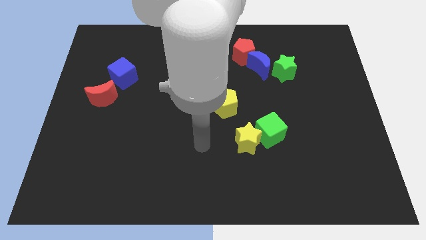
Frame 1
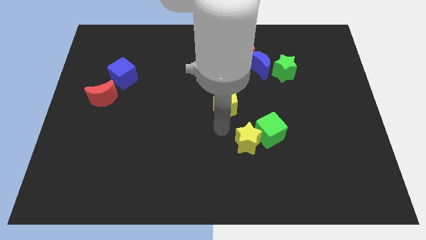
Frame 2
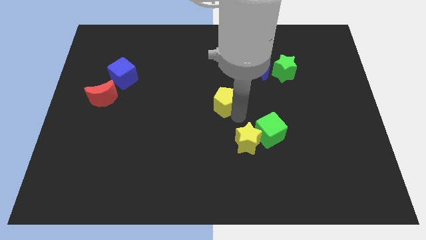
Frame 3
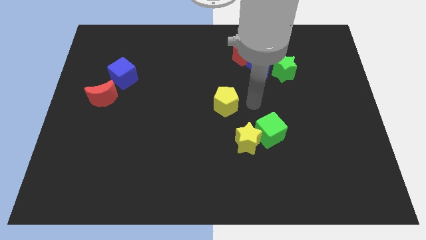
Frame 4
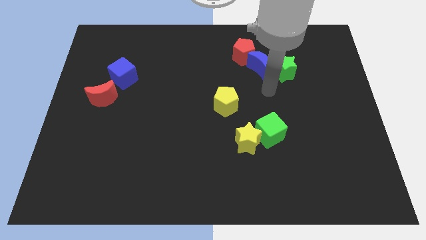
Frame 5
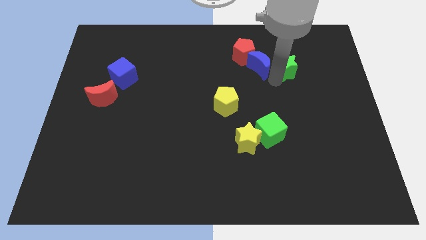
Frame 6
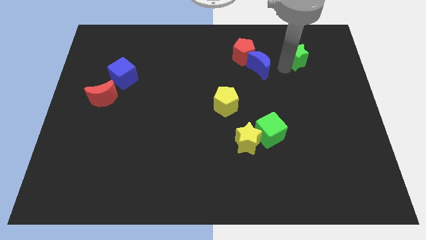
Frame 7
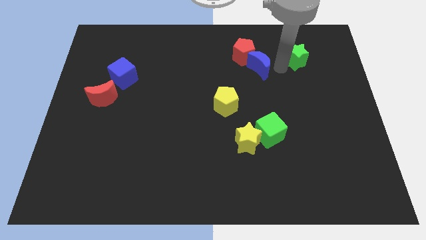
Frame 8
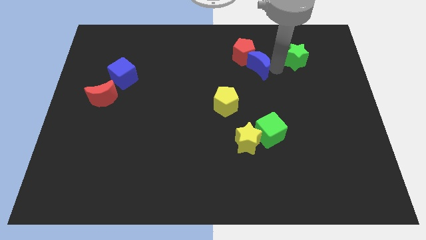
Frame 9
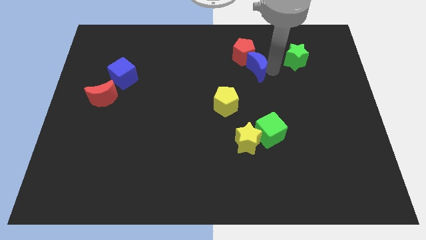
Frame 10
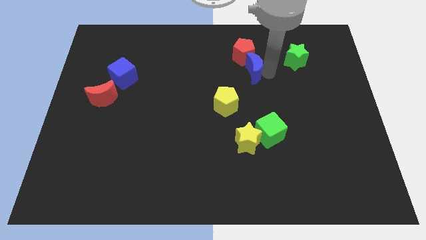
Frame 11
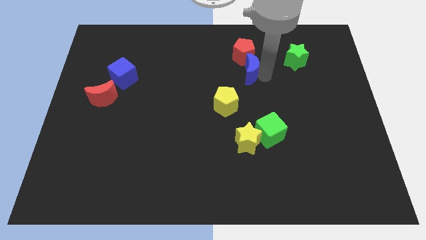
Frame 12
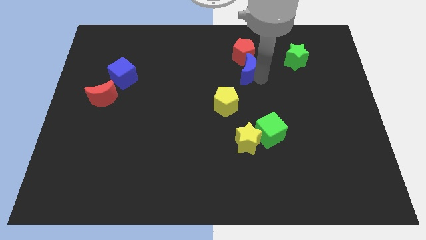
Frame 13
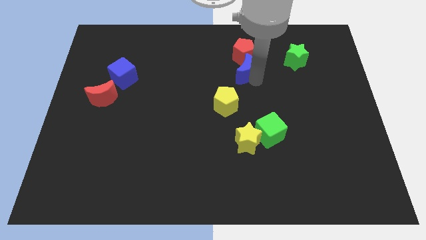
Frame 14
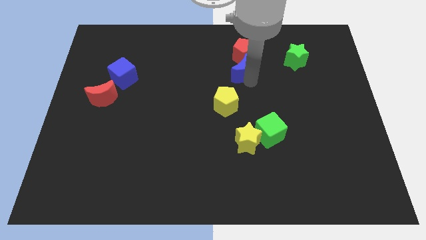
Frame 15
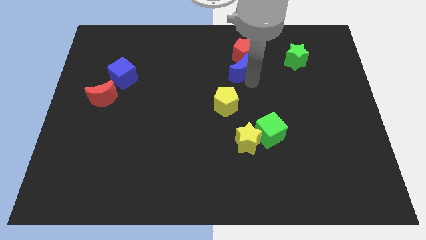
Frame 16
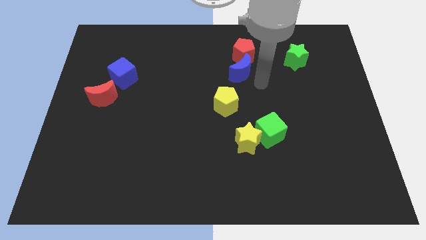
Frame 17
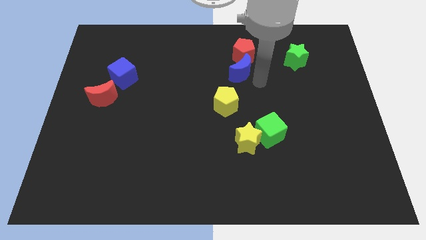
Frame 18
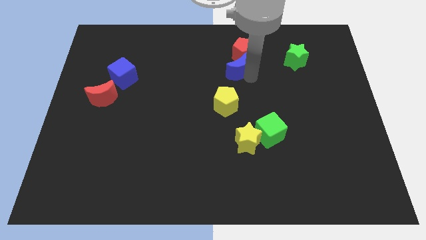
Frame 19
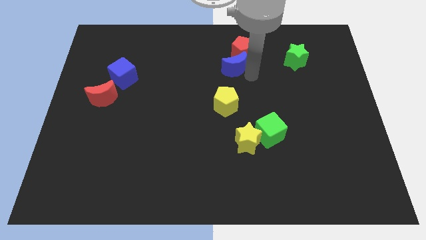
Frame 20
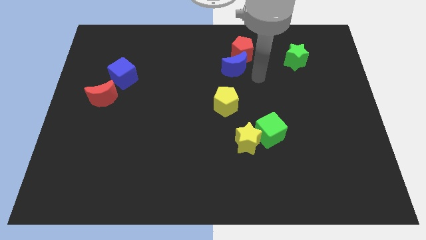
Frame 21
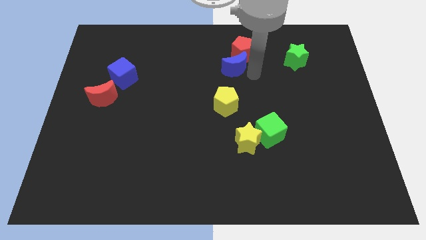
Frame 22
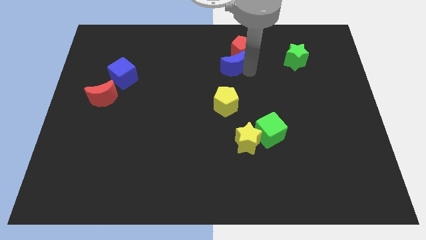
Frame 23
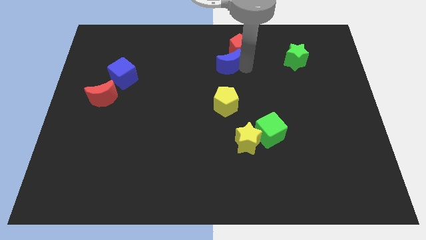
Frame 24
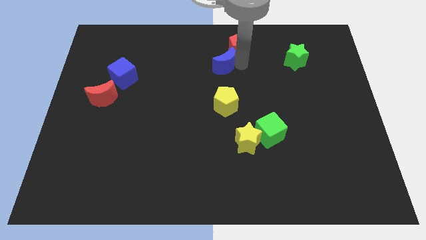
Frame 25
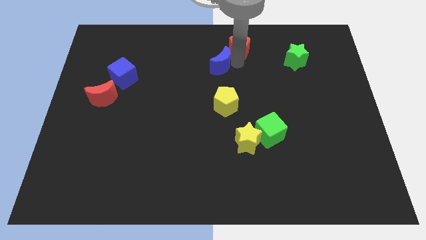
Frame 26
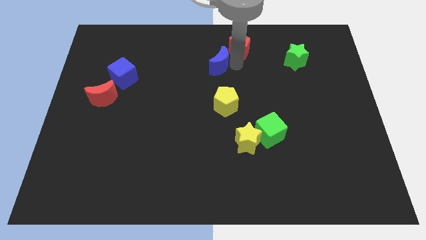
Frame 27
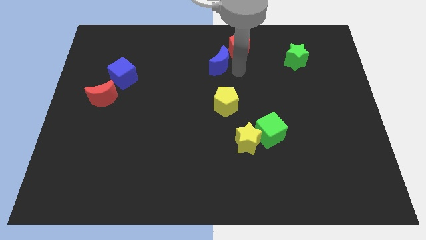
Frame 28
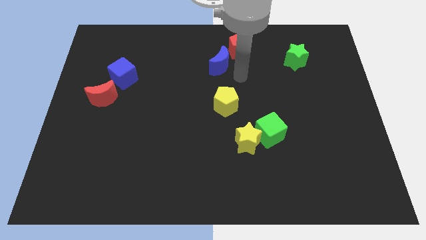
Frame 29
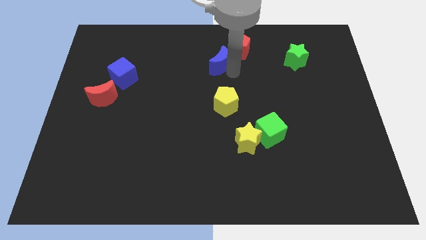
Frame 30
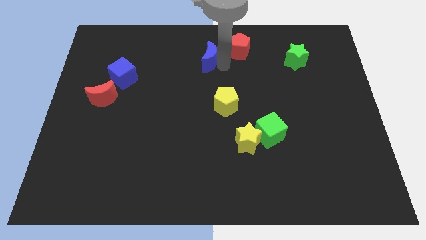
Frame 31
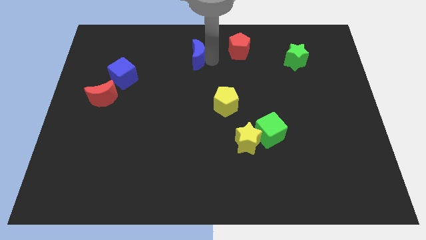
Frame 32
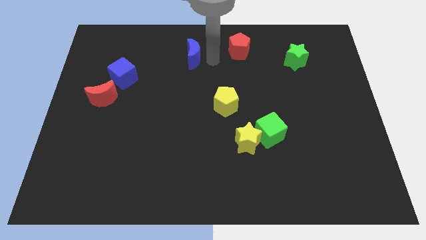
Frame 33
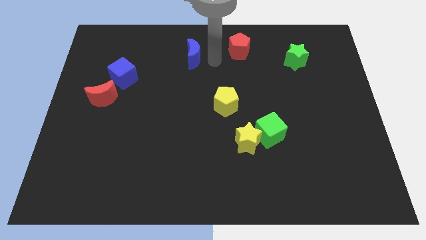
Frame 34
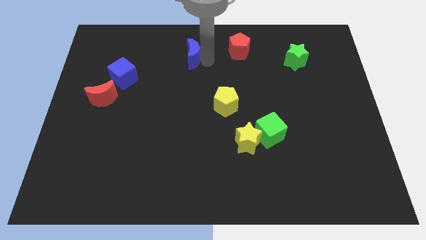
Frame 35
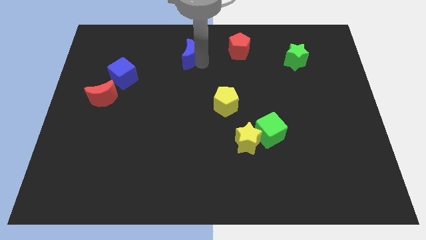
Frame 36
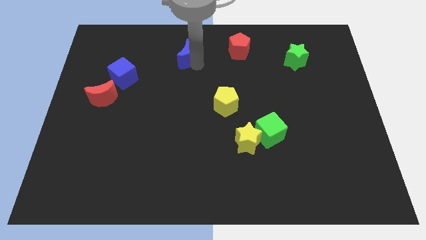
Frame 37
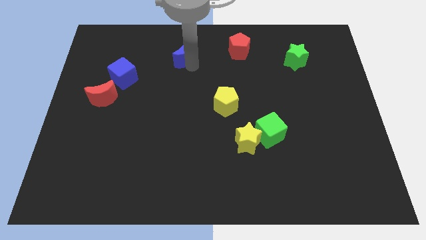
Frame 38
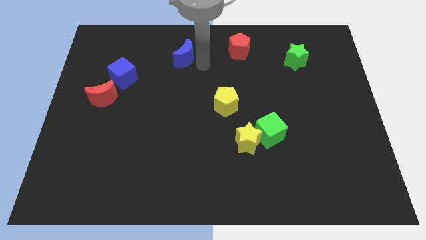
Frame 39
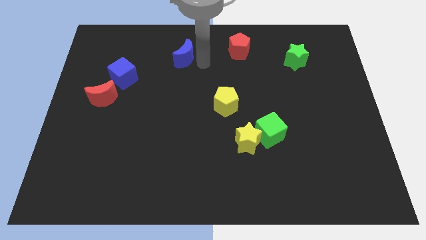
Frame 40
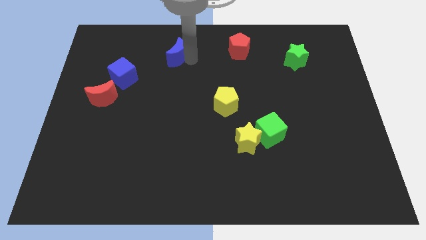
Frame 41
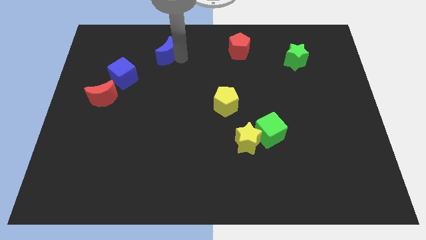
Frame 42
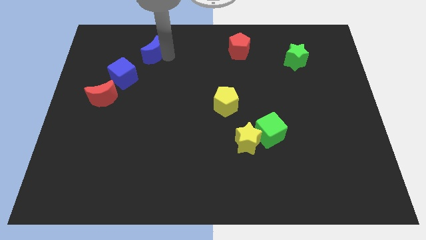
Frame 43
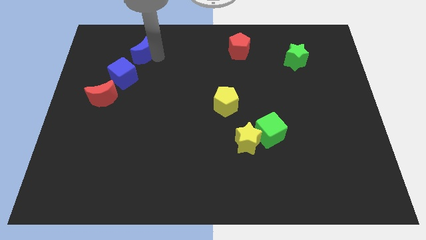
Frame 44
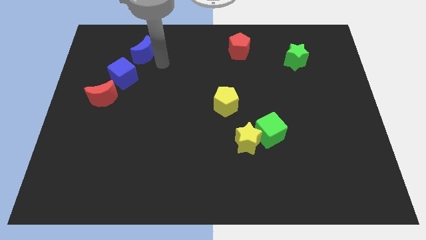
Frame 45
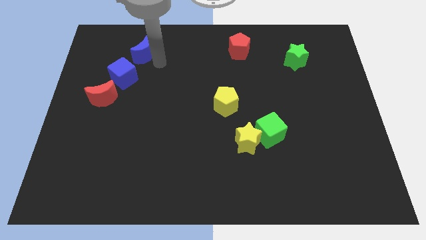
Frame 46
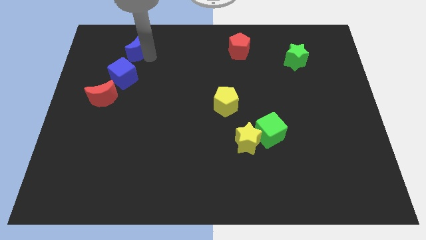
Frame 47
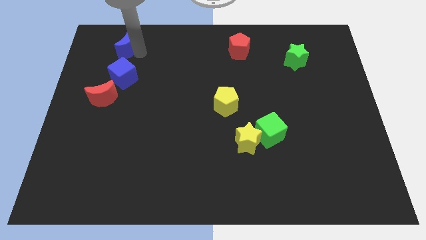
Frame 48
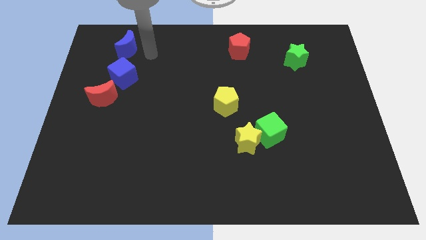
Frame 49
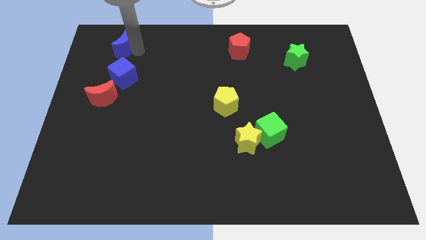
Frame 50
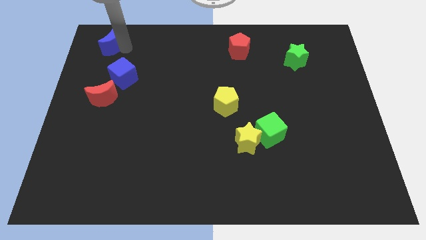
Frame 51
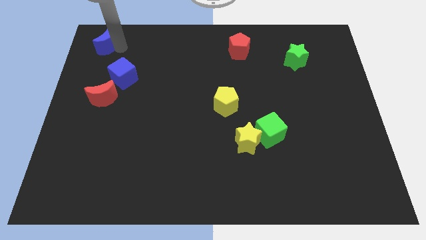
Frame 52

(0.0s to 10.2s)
move the blue moon to the top left
